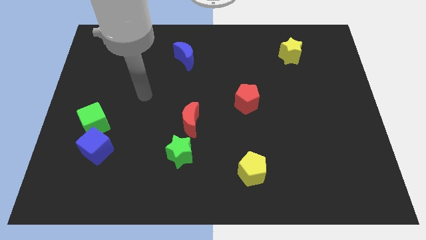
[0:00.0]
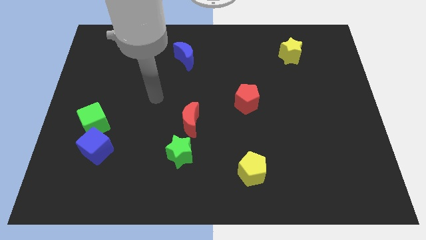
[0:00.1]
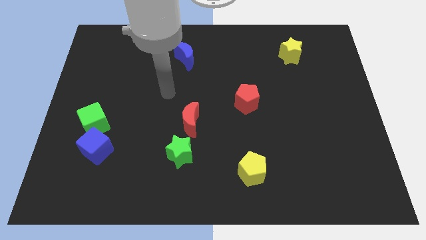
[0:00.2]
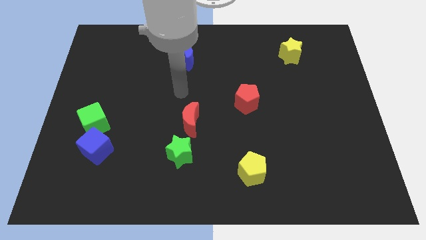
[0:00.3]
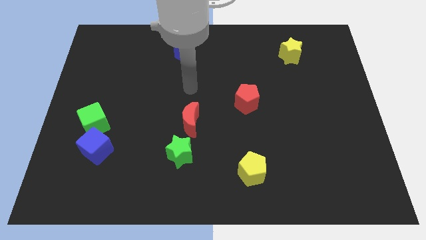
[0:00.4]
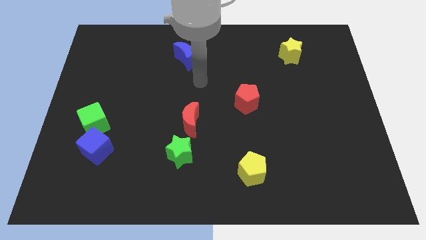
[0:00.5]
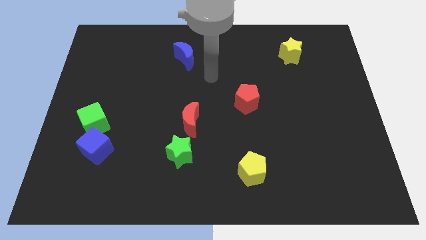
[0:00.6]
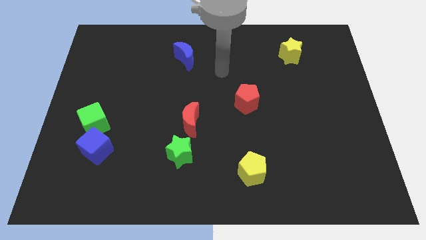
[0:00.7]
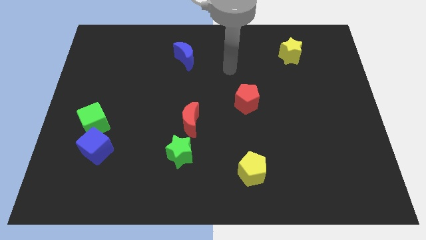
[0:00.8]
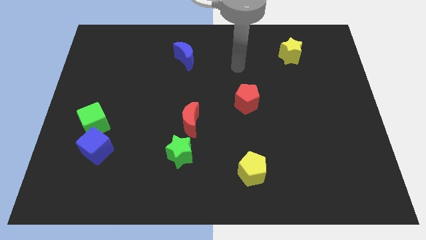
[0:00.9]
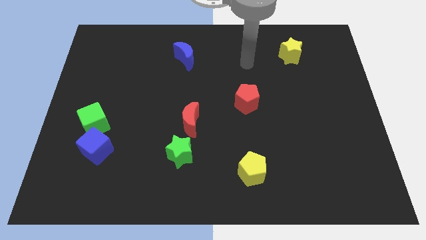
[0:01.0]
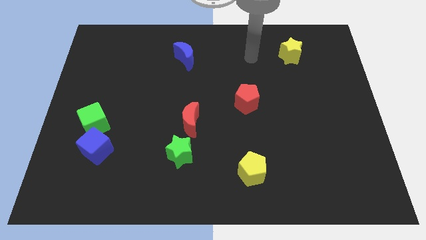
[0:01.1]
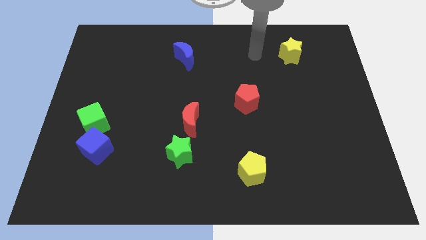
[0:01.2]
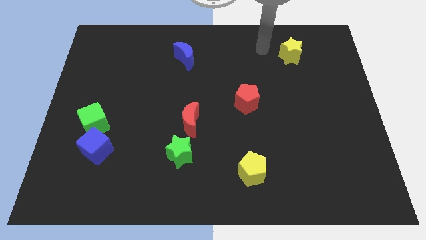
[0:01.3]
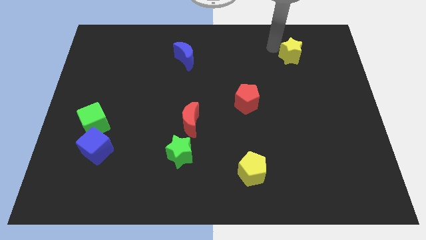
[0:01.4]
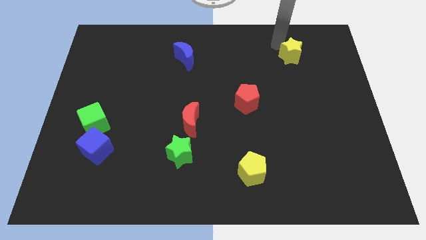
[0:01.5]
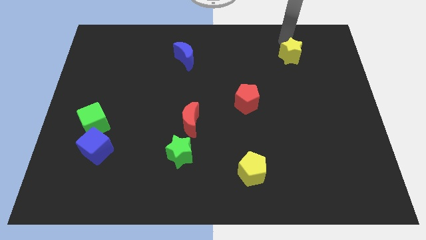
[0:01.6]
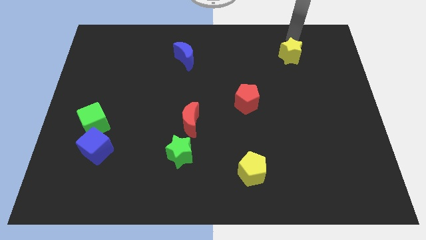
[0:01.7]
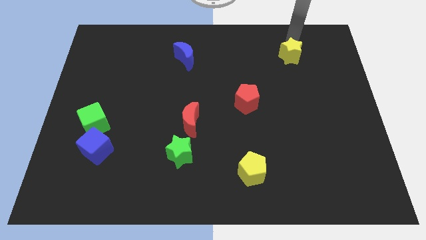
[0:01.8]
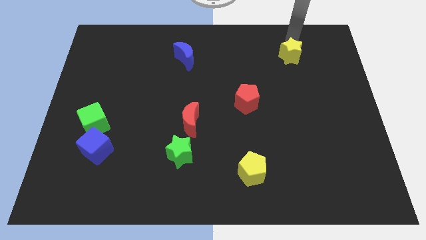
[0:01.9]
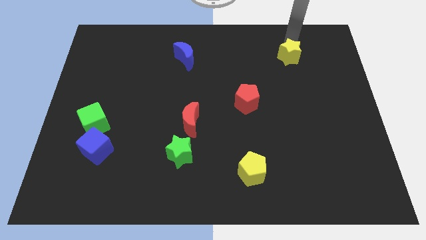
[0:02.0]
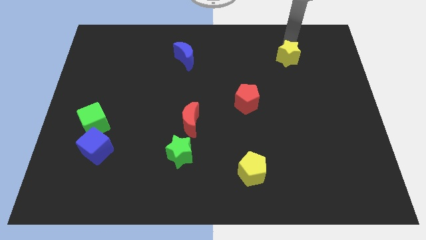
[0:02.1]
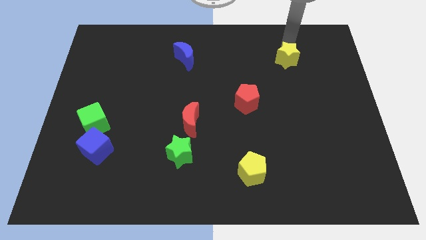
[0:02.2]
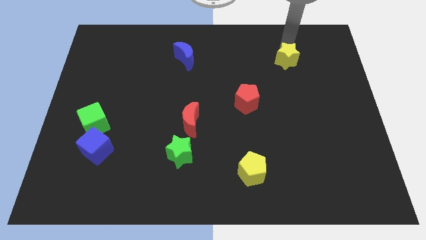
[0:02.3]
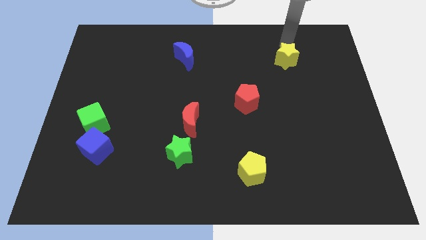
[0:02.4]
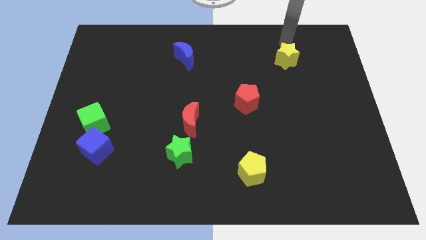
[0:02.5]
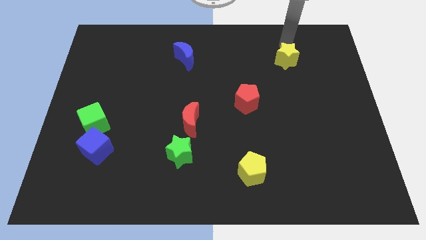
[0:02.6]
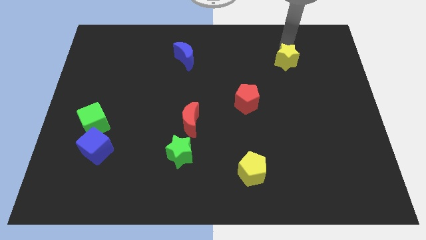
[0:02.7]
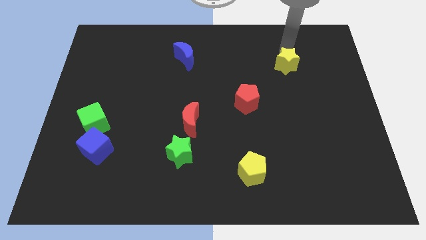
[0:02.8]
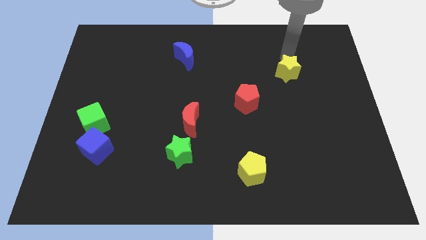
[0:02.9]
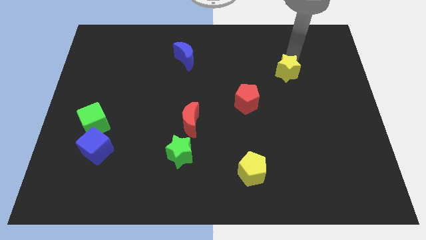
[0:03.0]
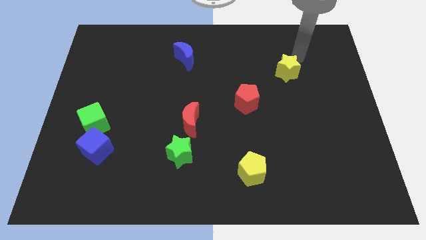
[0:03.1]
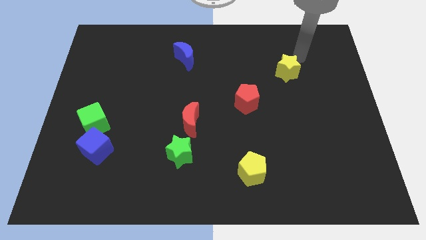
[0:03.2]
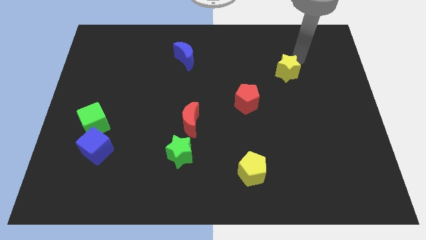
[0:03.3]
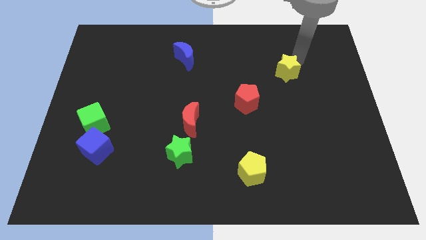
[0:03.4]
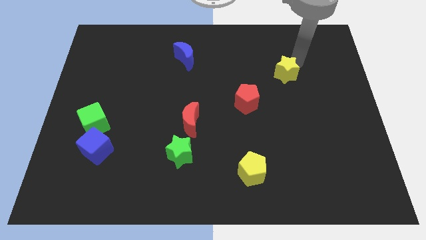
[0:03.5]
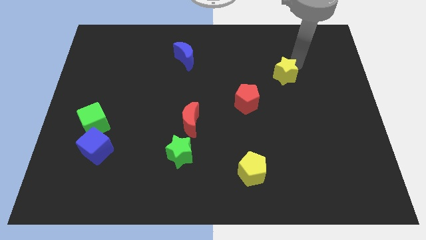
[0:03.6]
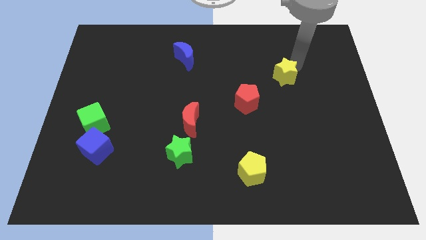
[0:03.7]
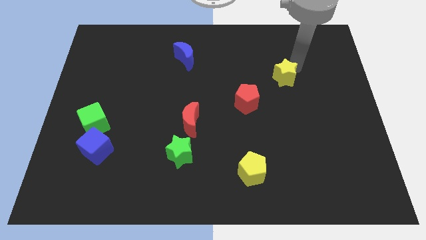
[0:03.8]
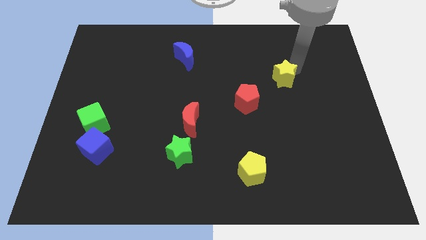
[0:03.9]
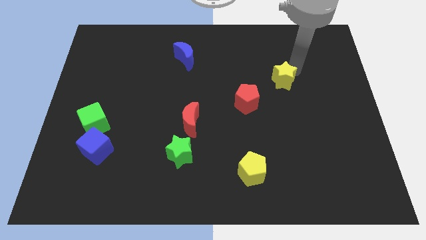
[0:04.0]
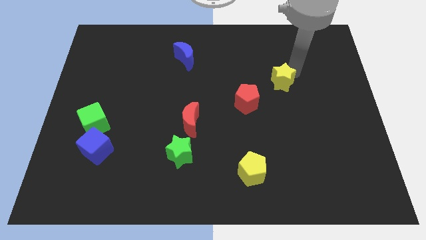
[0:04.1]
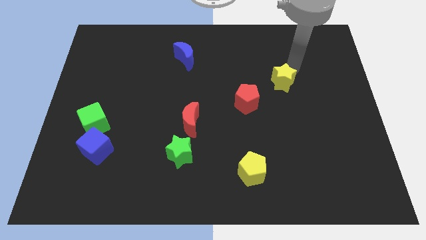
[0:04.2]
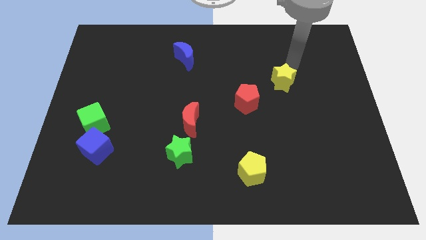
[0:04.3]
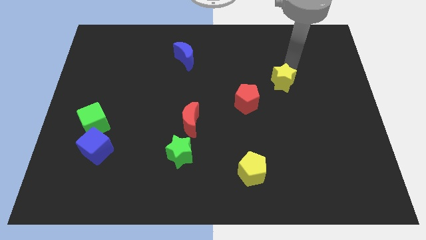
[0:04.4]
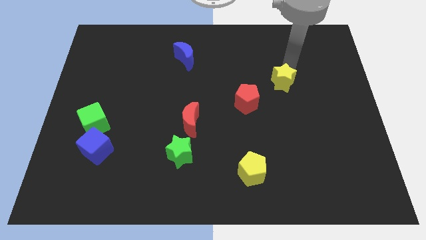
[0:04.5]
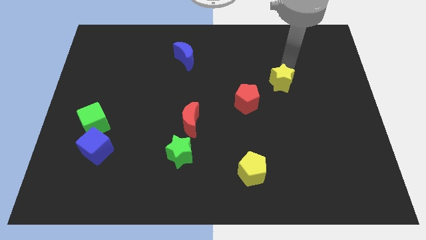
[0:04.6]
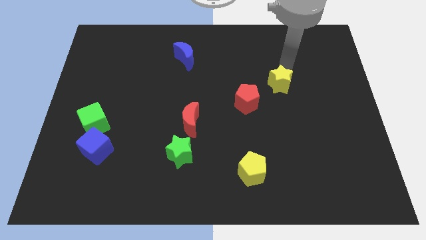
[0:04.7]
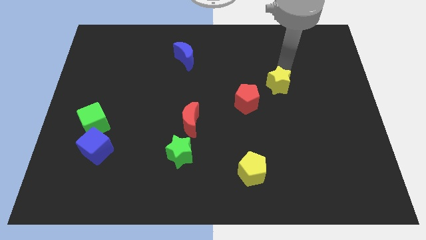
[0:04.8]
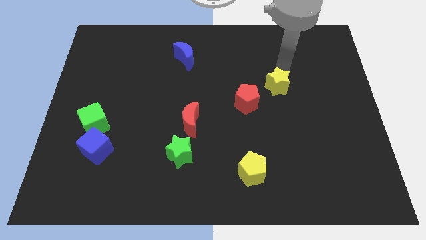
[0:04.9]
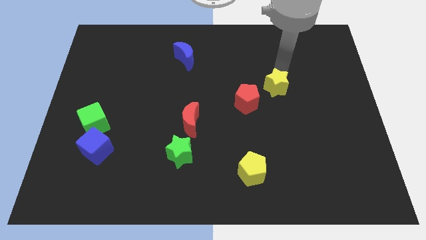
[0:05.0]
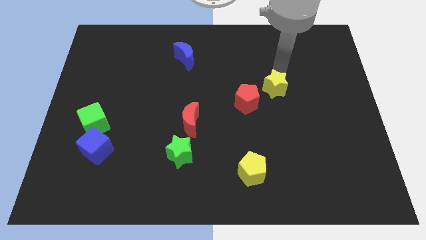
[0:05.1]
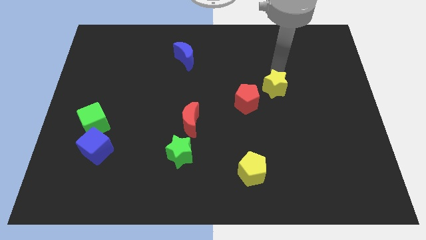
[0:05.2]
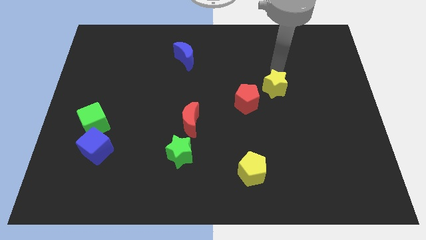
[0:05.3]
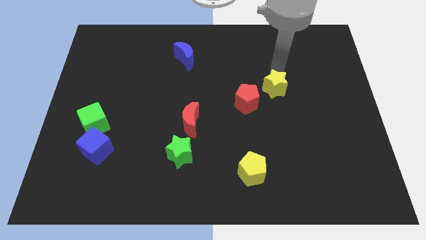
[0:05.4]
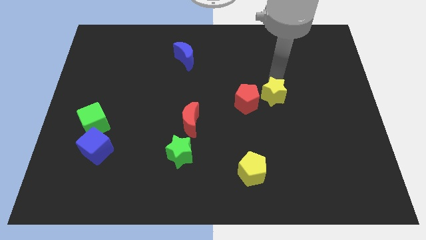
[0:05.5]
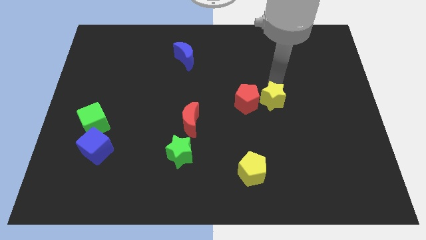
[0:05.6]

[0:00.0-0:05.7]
move the yellow star diagonally down and to the right of the red pentagon

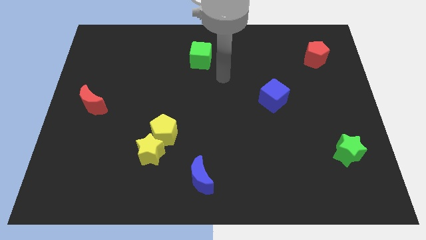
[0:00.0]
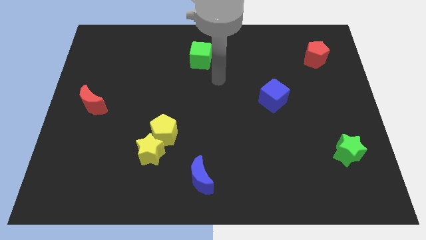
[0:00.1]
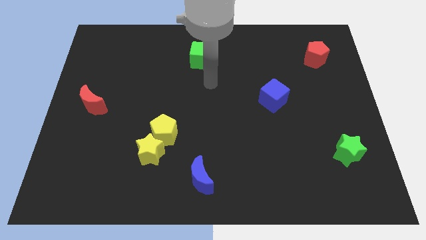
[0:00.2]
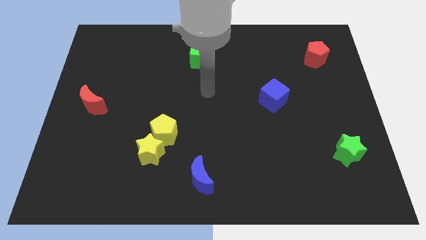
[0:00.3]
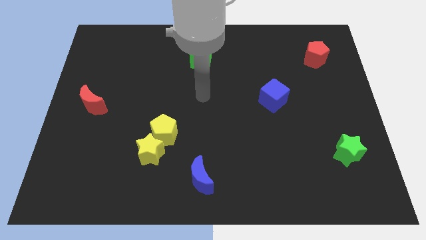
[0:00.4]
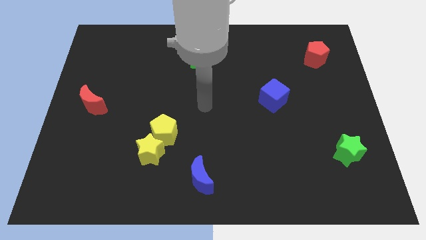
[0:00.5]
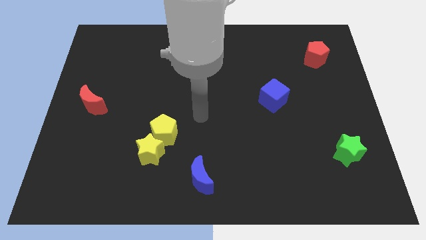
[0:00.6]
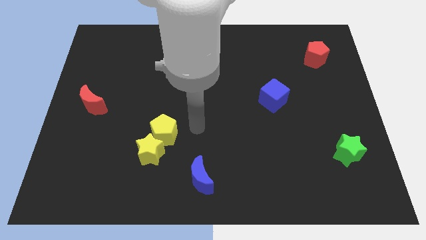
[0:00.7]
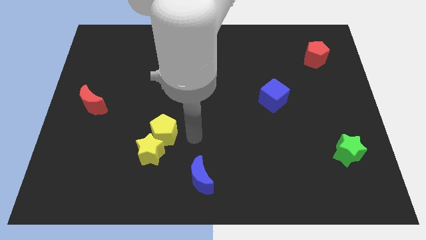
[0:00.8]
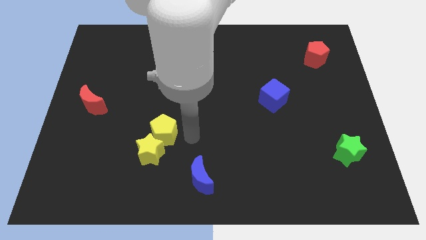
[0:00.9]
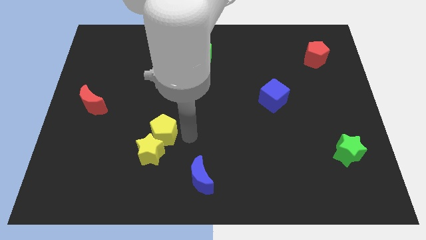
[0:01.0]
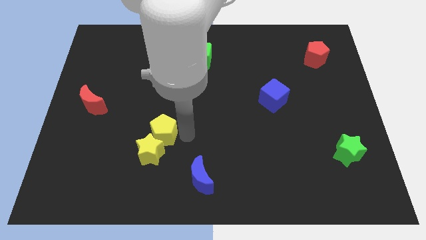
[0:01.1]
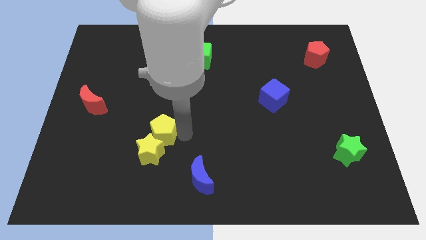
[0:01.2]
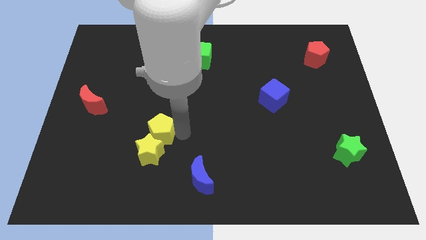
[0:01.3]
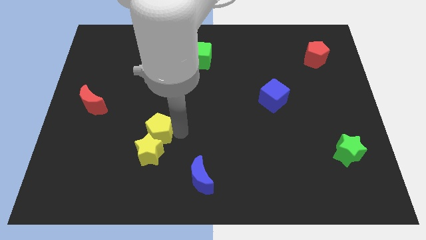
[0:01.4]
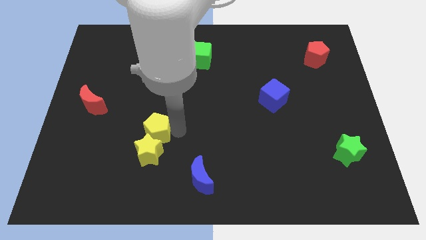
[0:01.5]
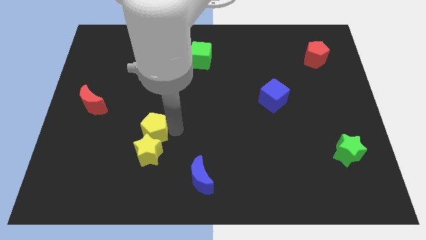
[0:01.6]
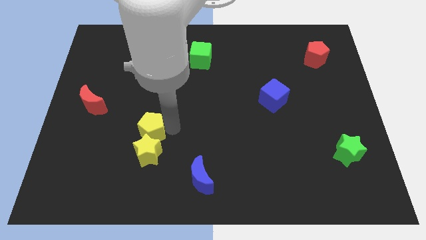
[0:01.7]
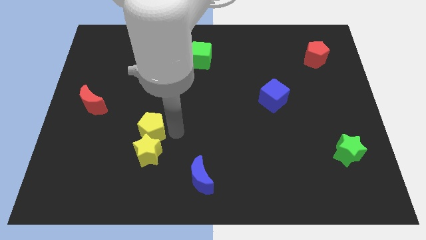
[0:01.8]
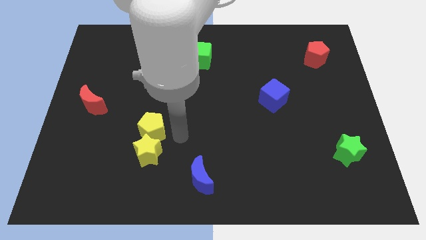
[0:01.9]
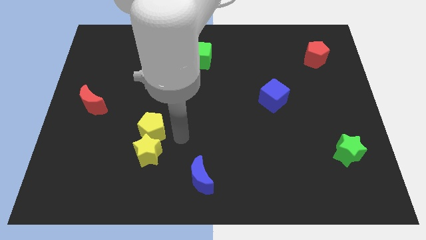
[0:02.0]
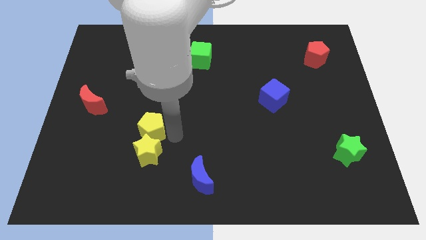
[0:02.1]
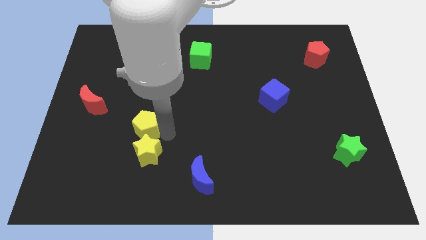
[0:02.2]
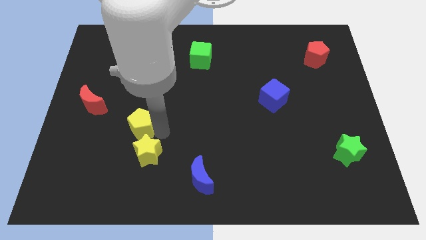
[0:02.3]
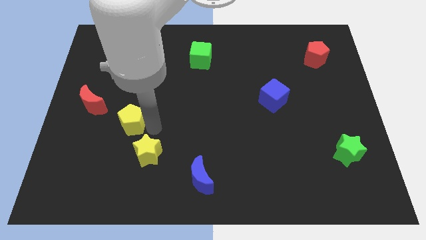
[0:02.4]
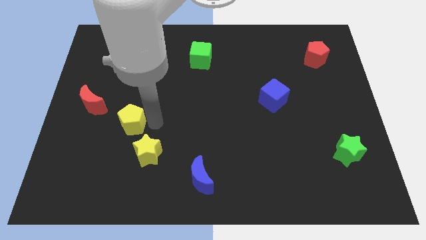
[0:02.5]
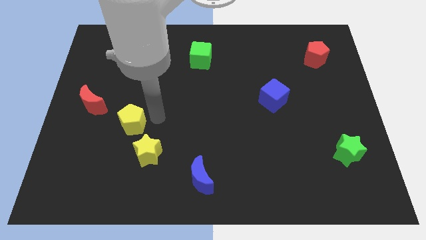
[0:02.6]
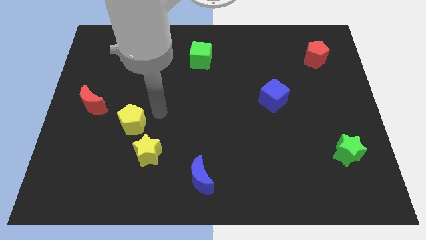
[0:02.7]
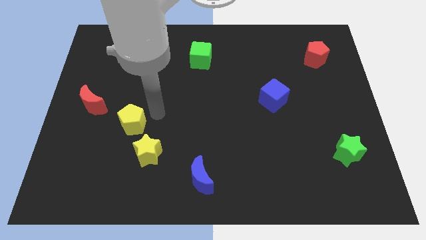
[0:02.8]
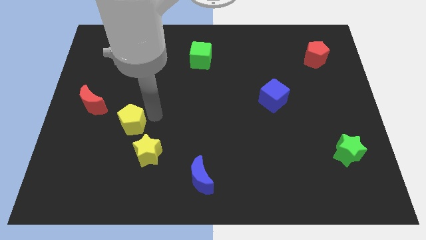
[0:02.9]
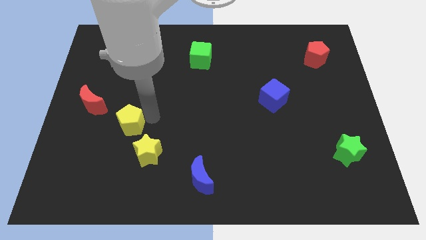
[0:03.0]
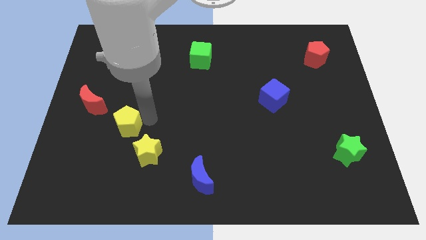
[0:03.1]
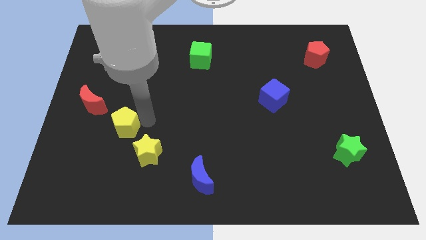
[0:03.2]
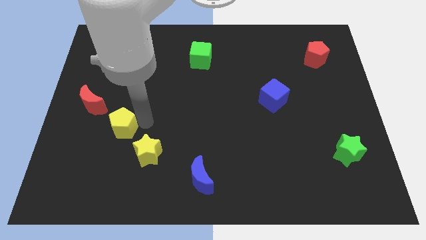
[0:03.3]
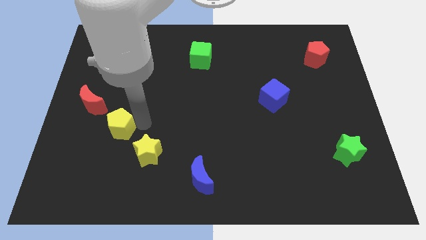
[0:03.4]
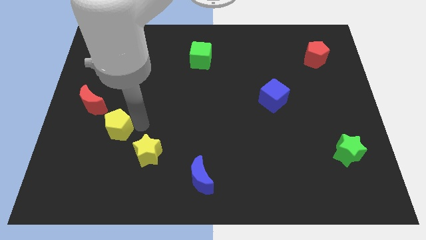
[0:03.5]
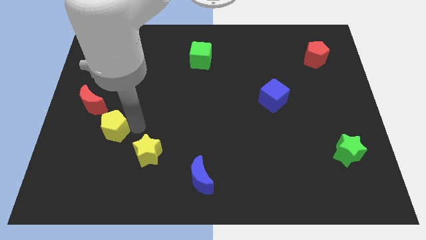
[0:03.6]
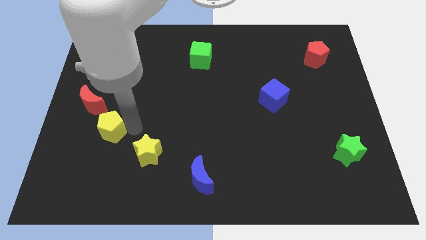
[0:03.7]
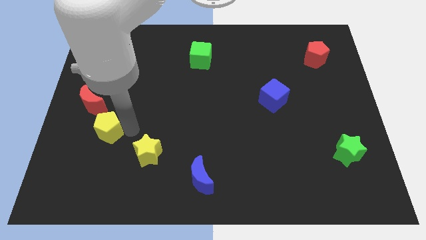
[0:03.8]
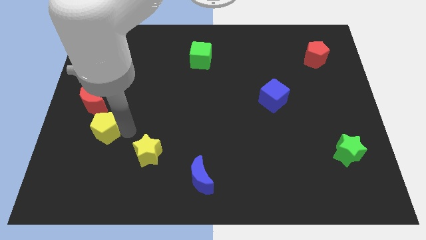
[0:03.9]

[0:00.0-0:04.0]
push the yellow pentagon below the red moon
